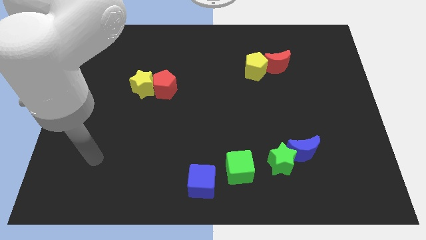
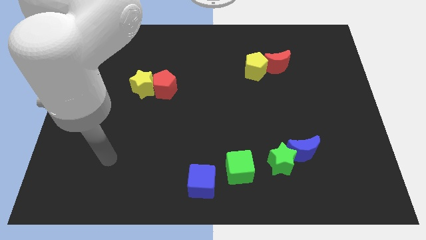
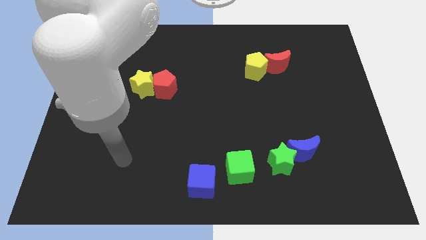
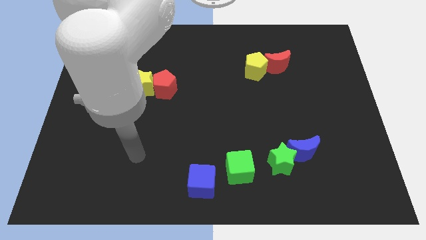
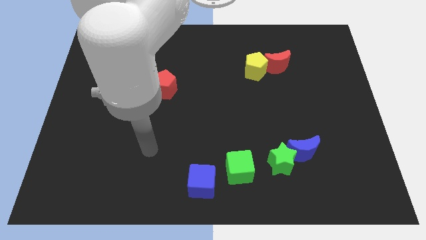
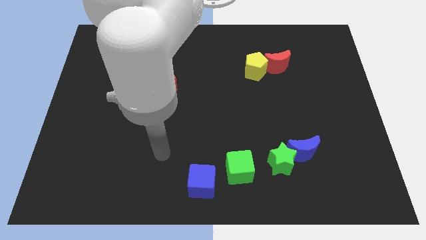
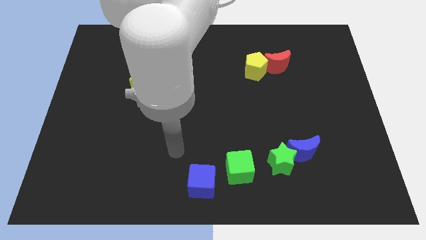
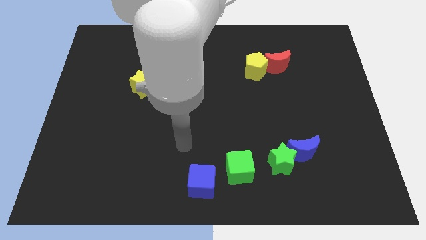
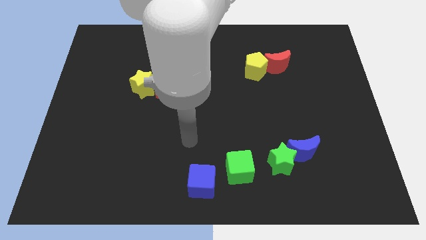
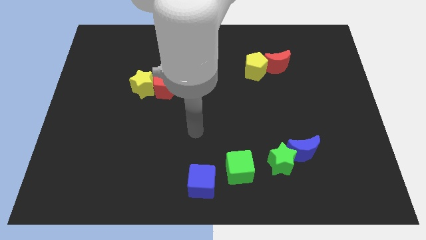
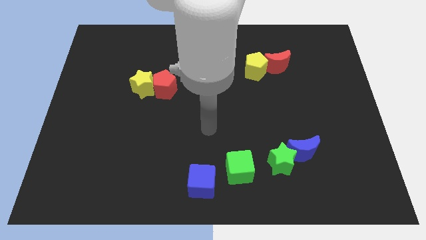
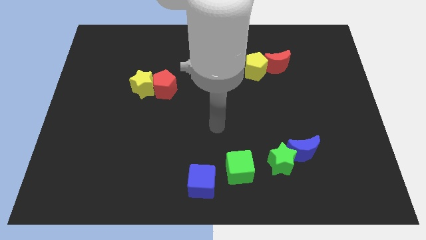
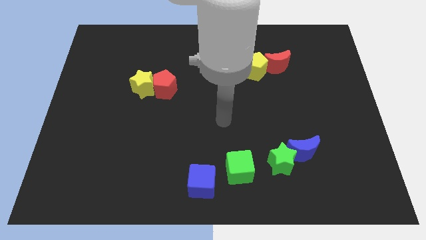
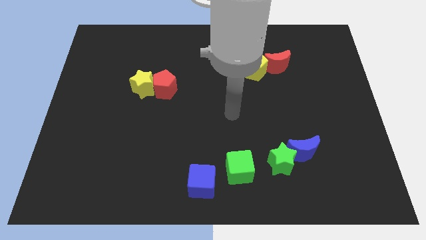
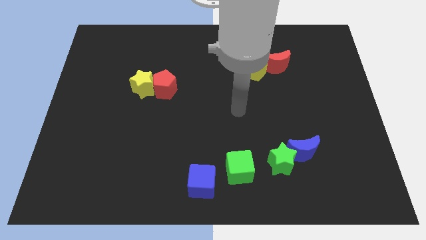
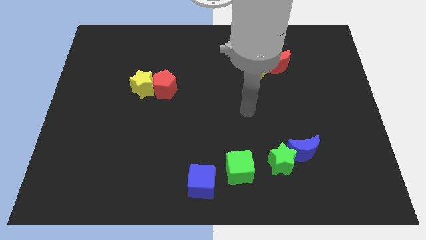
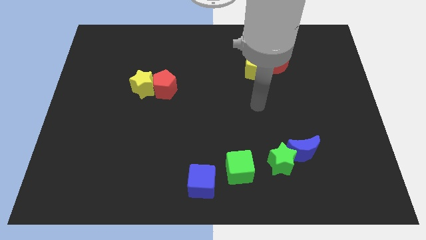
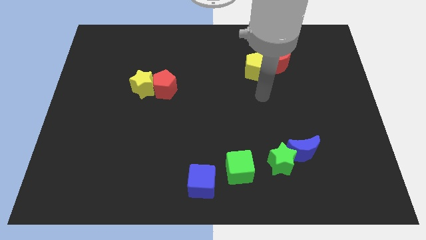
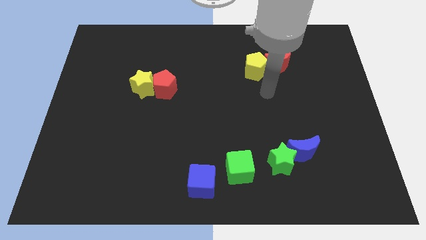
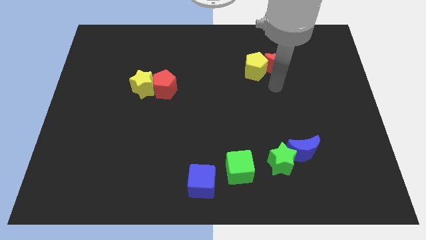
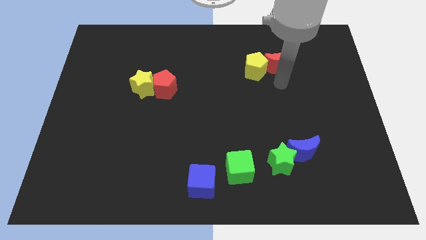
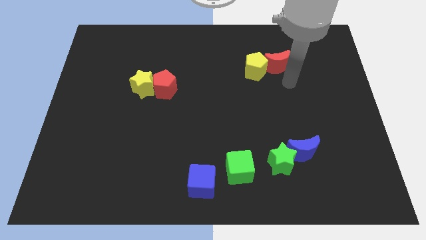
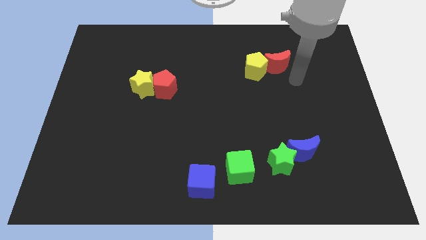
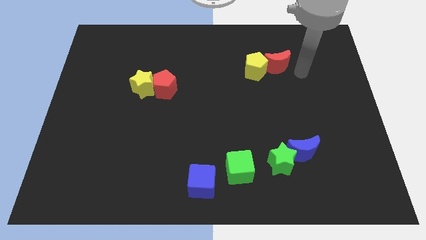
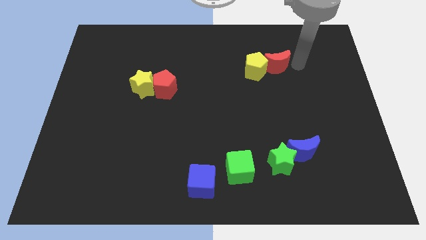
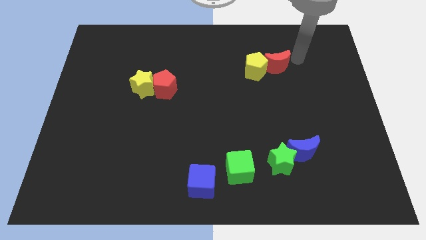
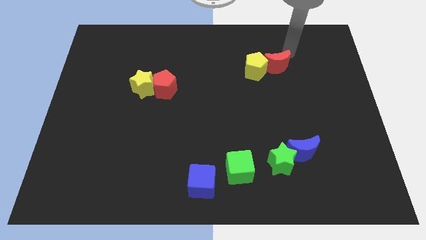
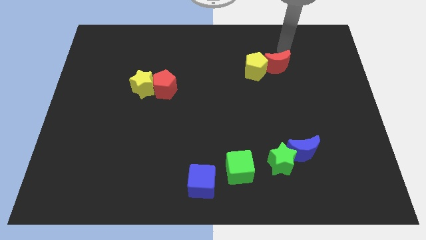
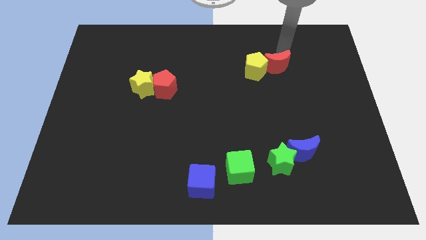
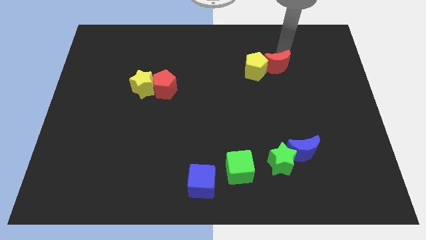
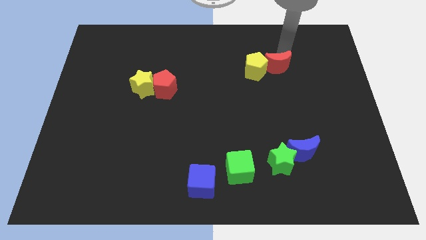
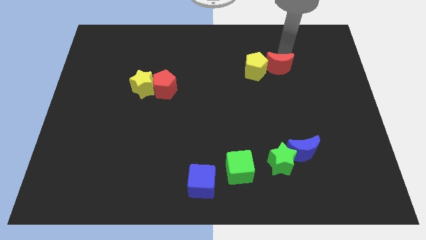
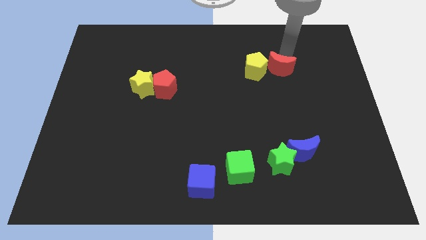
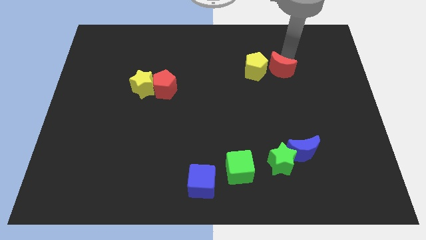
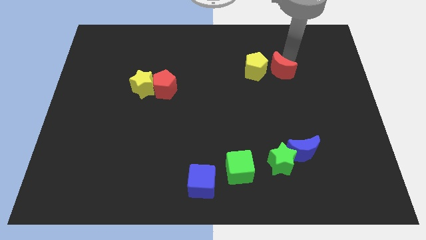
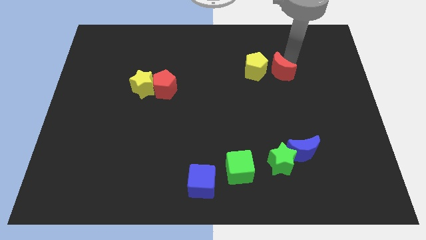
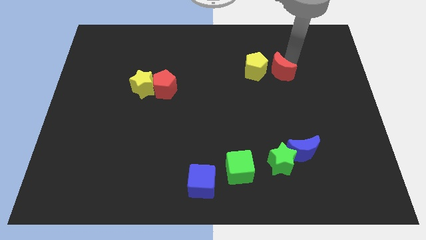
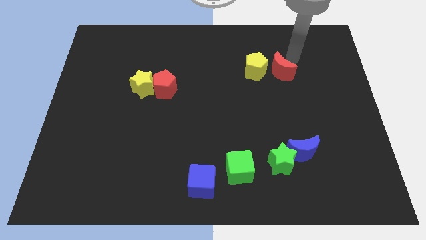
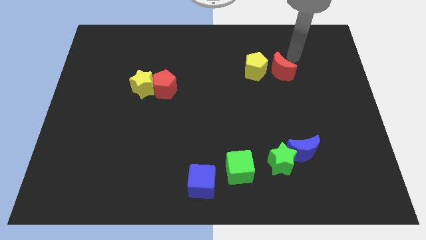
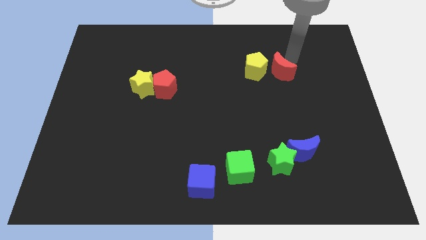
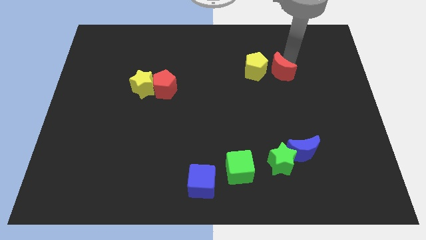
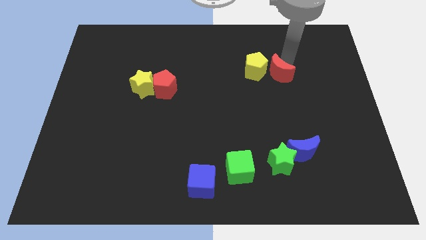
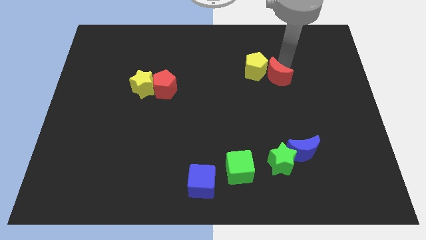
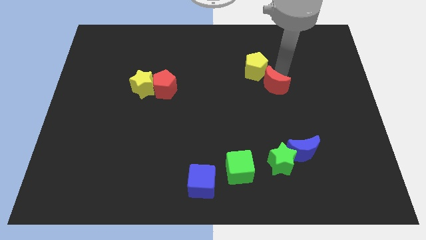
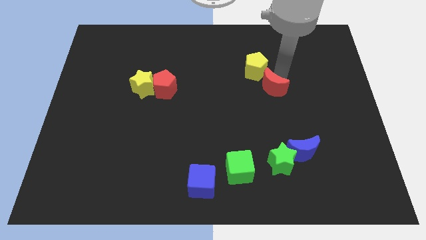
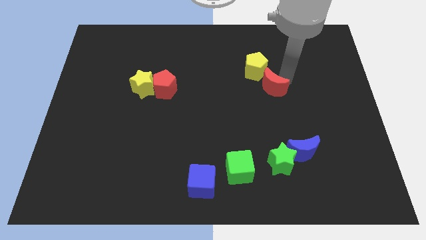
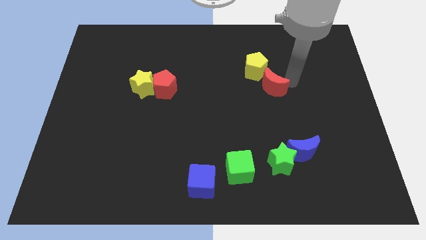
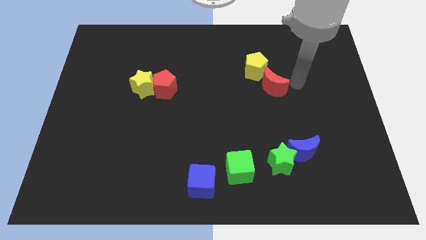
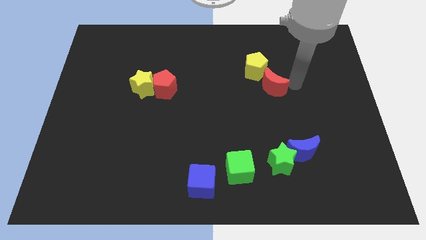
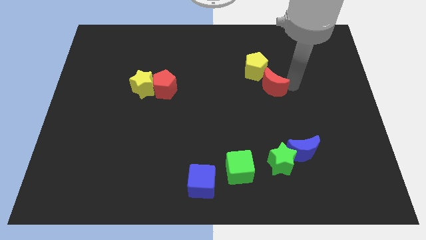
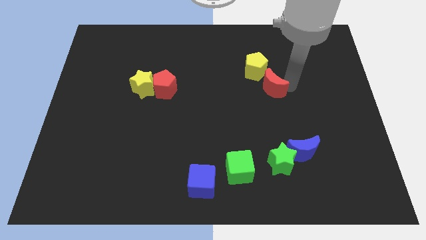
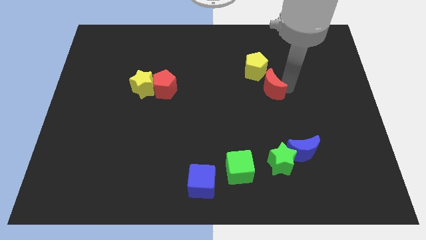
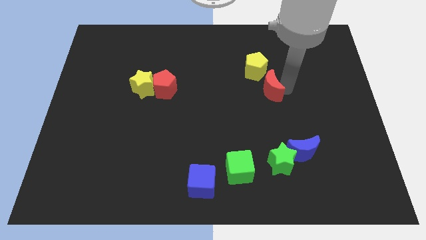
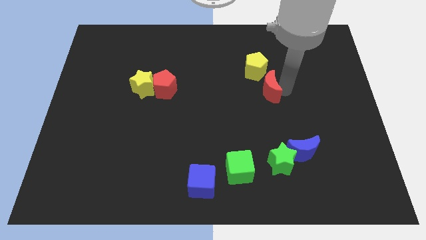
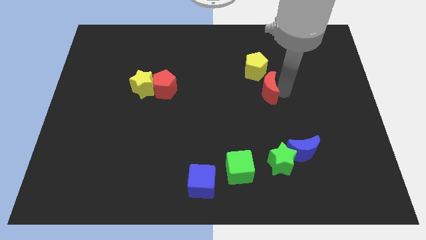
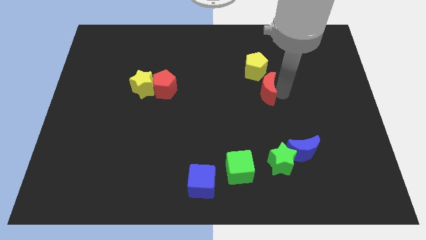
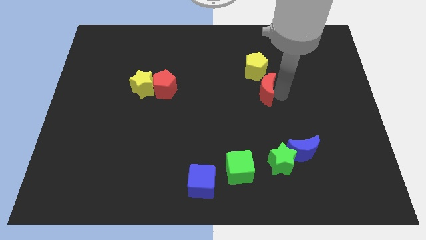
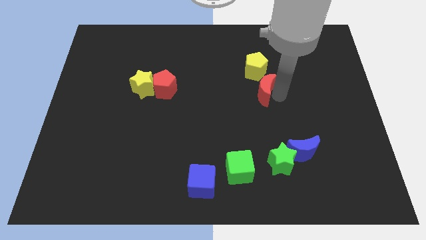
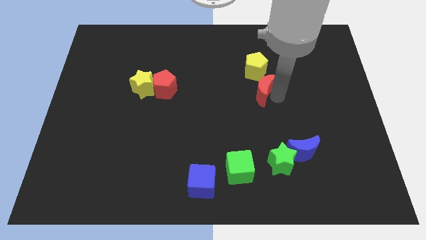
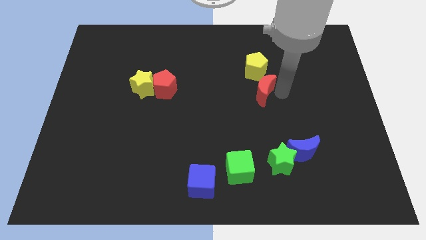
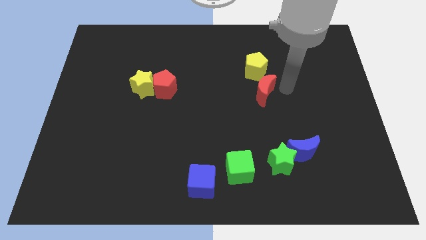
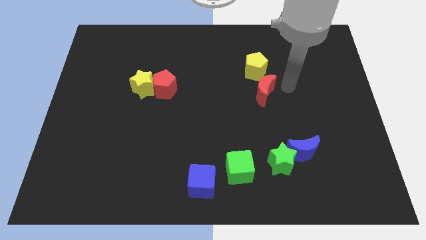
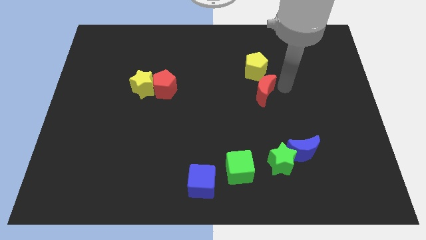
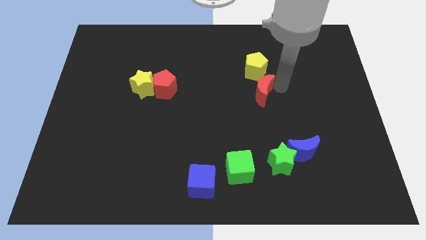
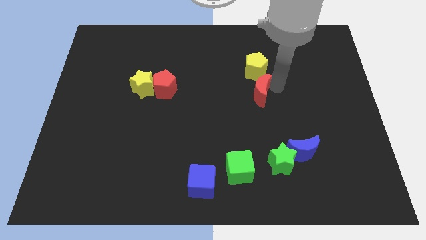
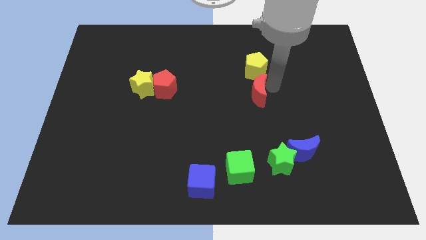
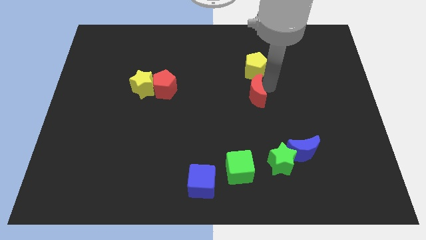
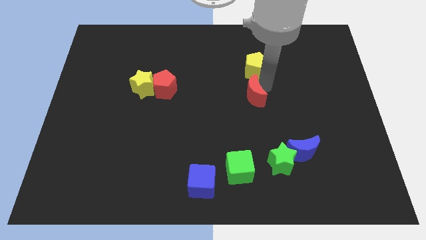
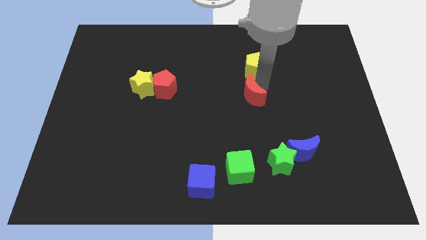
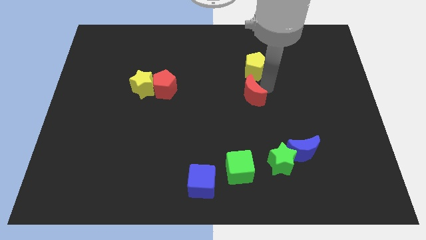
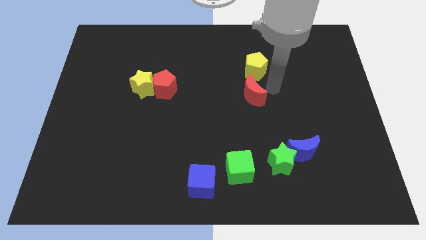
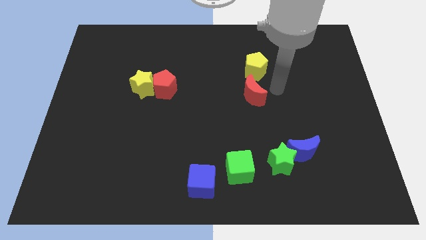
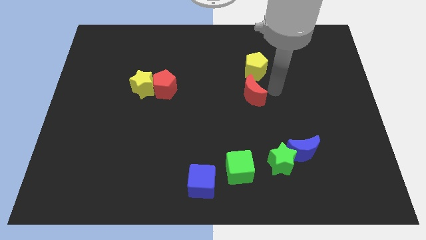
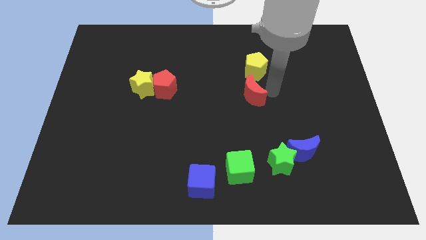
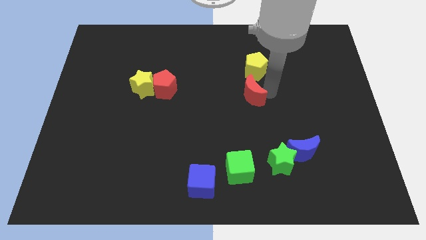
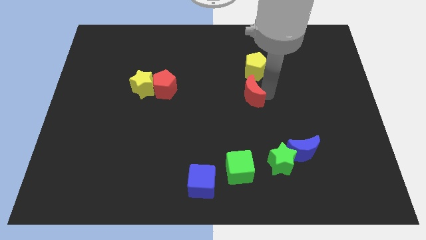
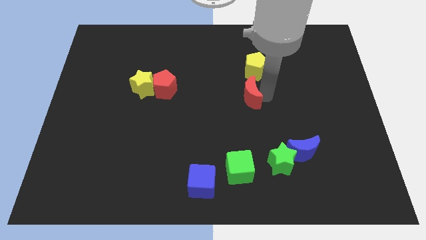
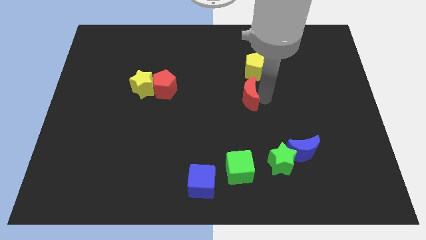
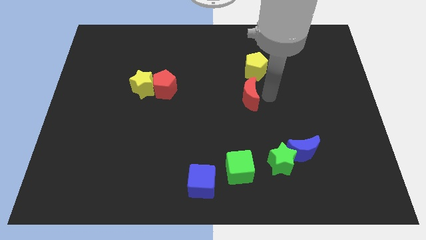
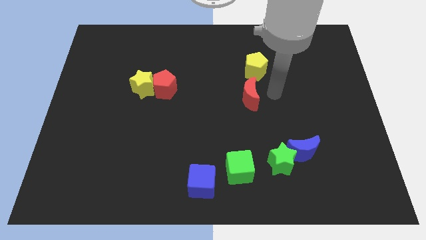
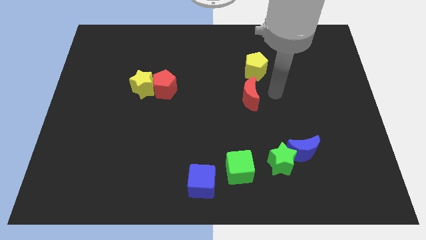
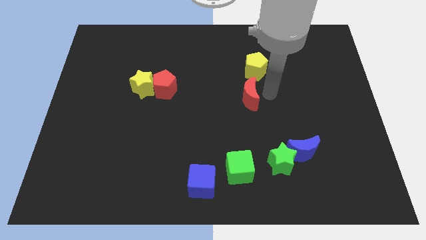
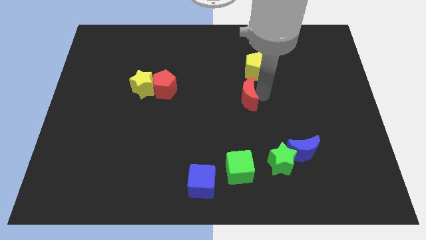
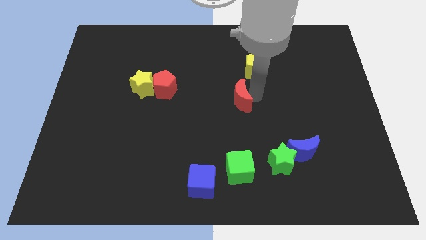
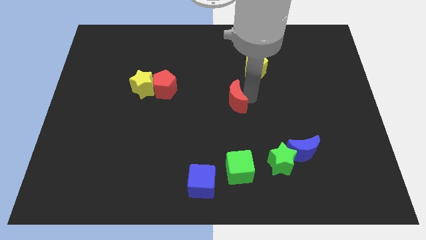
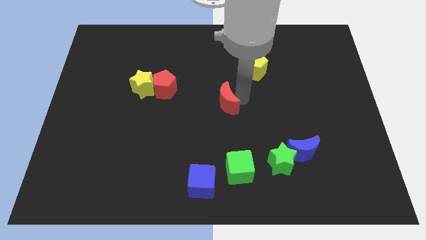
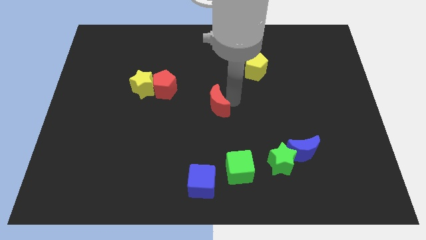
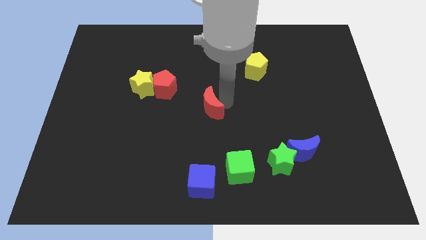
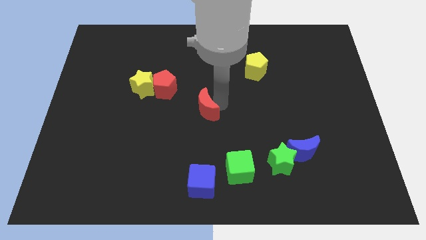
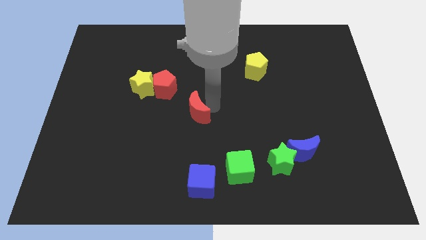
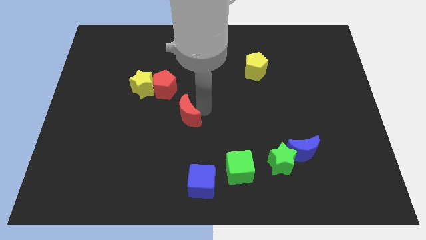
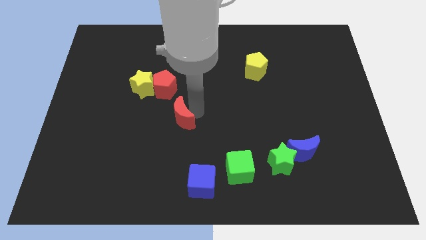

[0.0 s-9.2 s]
put the red moon to the bottom of the red pentagon
